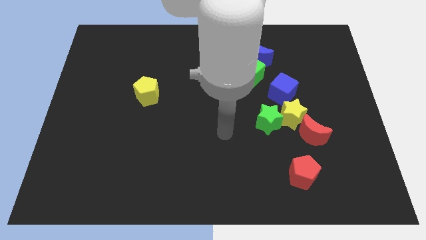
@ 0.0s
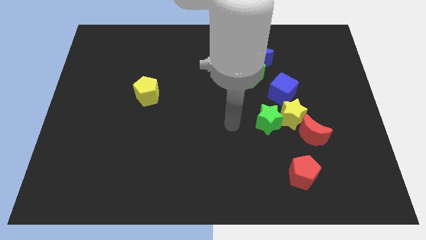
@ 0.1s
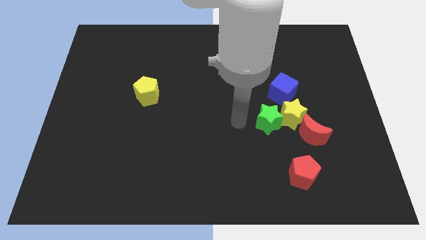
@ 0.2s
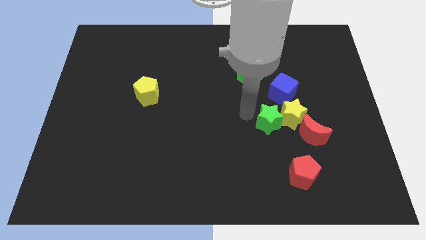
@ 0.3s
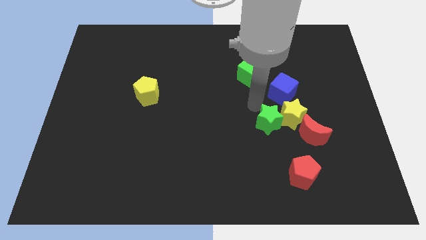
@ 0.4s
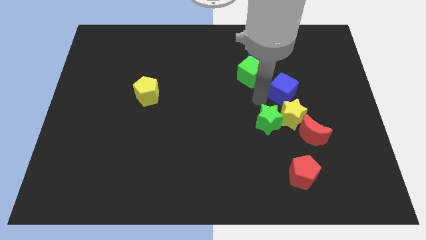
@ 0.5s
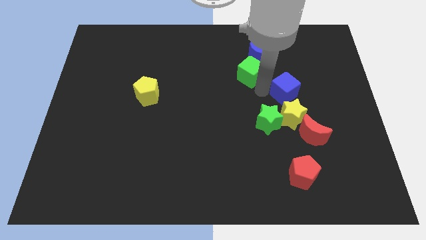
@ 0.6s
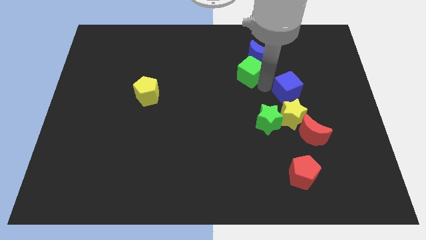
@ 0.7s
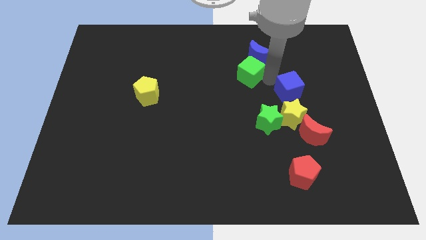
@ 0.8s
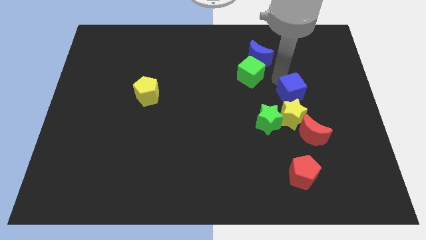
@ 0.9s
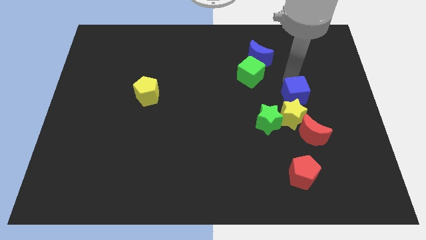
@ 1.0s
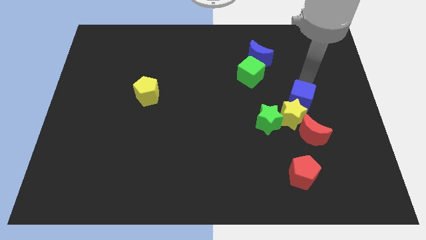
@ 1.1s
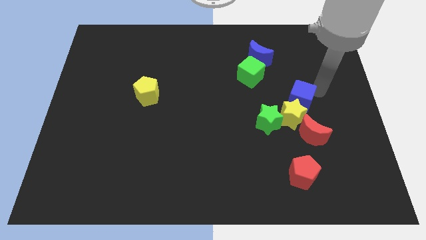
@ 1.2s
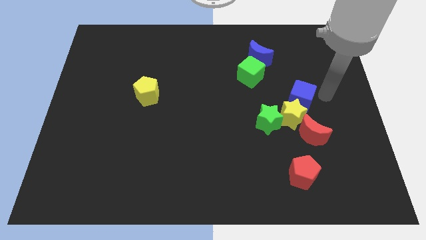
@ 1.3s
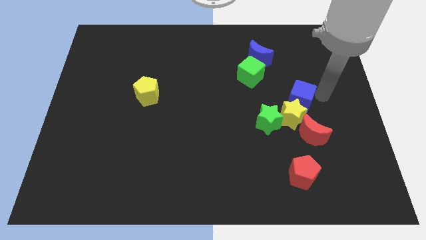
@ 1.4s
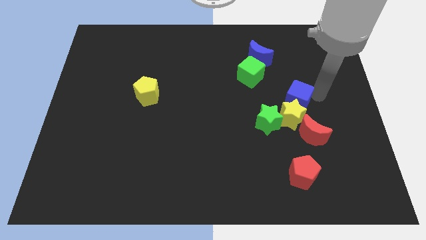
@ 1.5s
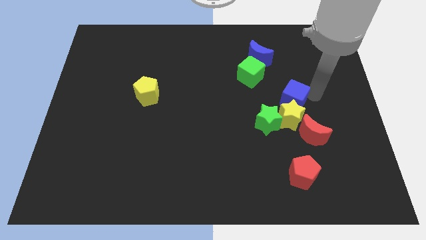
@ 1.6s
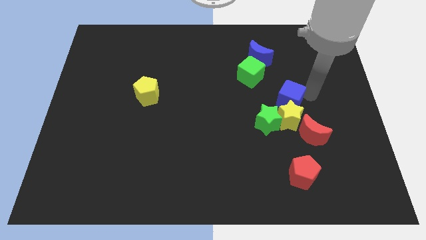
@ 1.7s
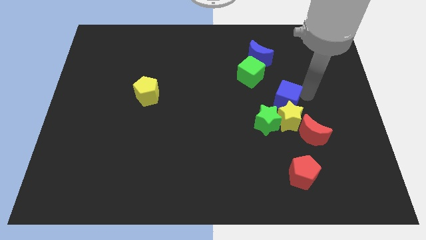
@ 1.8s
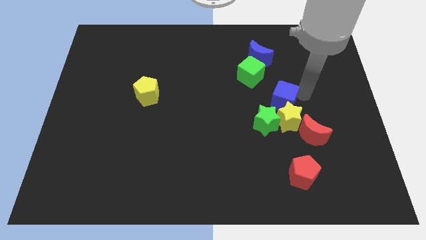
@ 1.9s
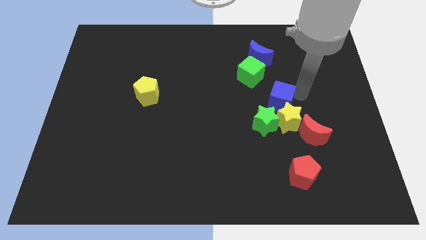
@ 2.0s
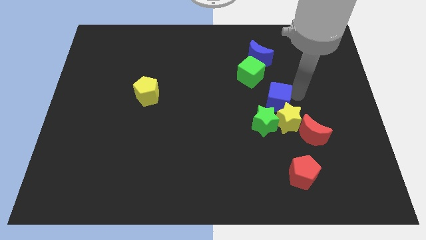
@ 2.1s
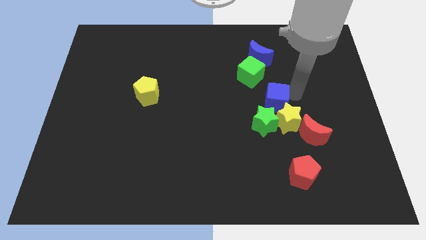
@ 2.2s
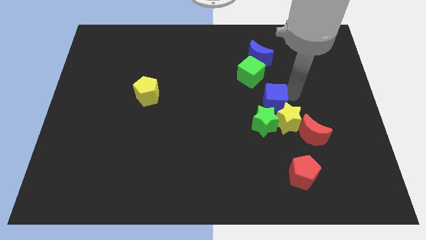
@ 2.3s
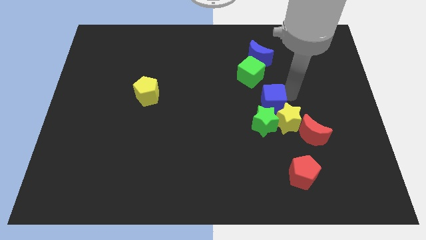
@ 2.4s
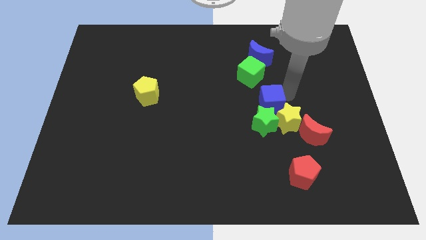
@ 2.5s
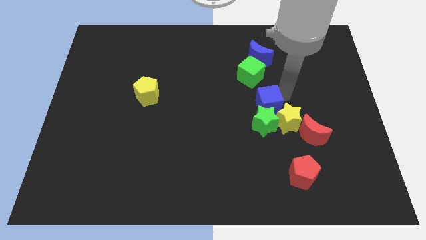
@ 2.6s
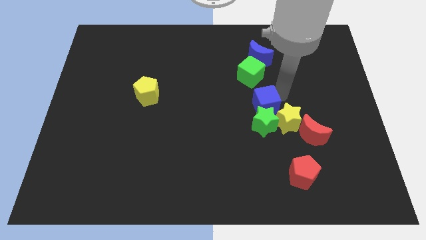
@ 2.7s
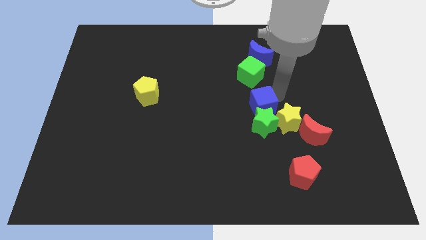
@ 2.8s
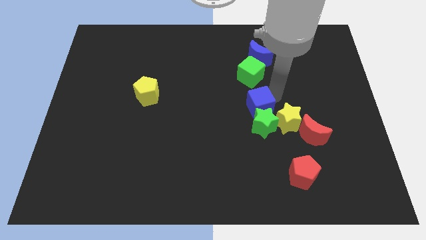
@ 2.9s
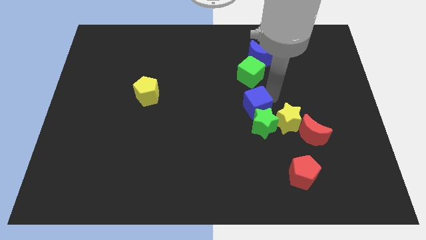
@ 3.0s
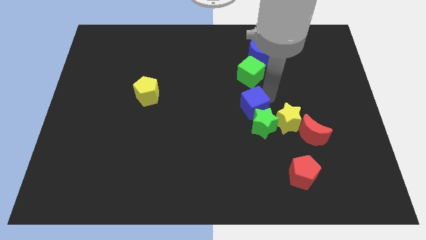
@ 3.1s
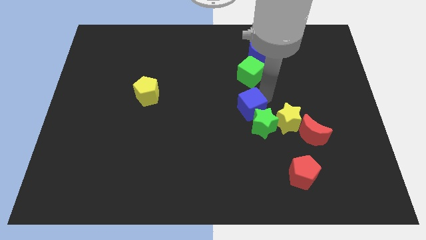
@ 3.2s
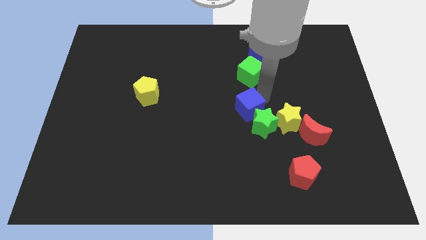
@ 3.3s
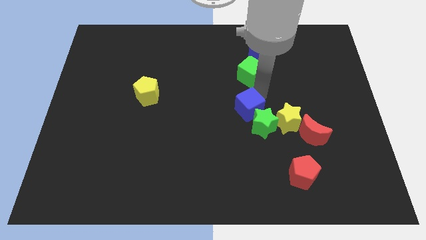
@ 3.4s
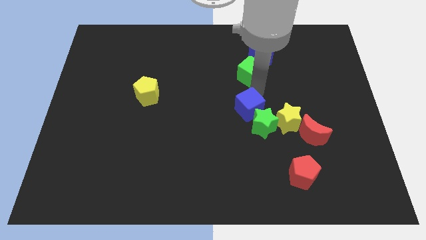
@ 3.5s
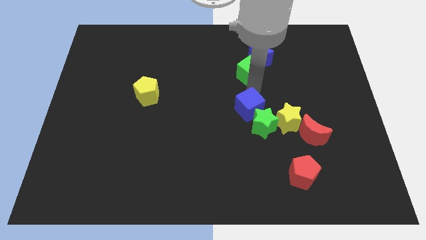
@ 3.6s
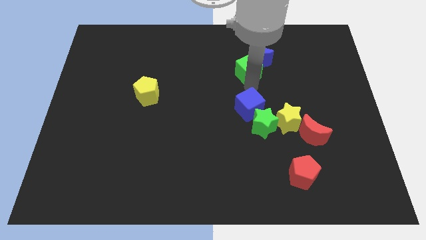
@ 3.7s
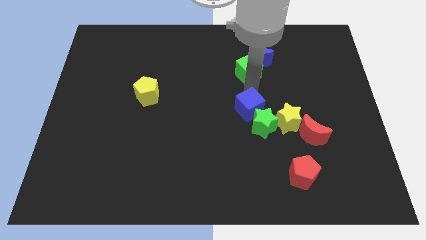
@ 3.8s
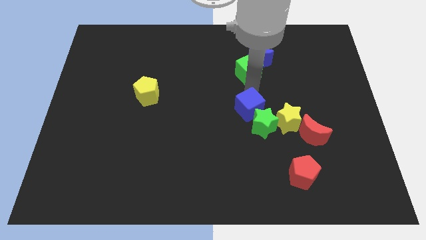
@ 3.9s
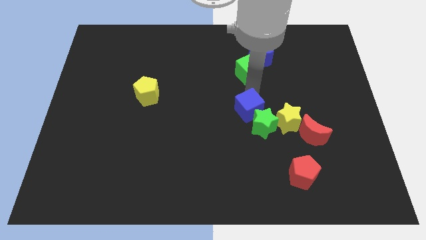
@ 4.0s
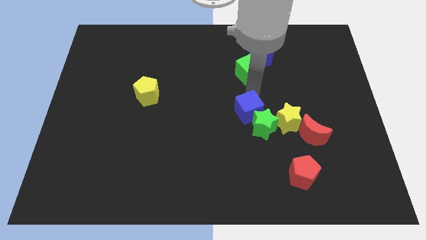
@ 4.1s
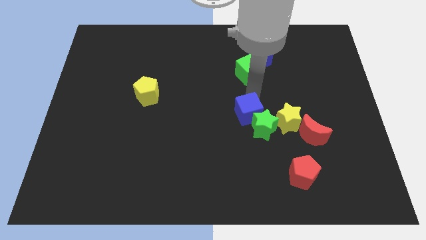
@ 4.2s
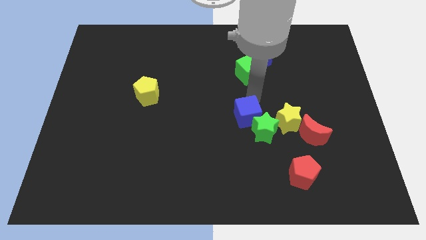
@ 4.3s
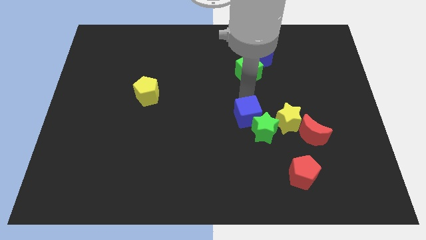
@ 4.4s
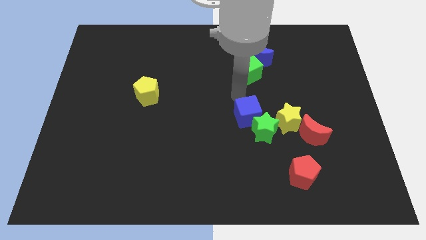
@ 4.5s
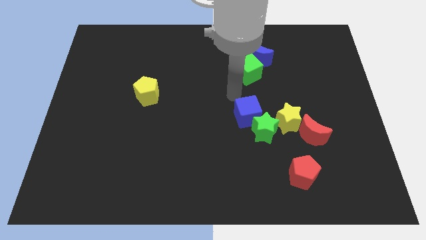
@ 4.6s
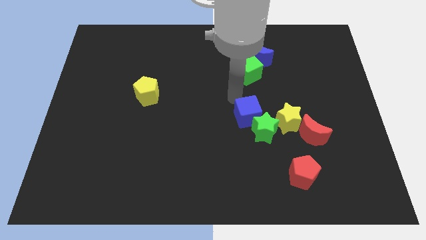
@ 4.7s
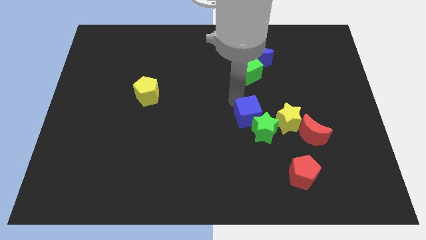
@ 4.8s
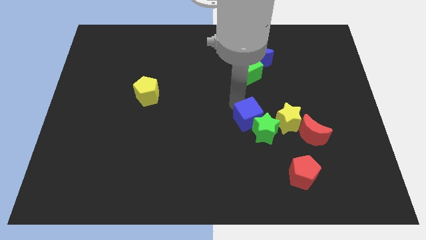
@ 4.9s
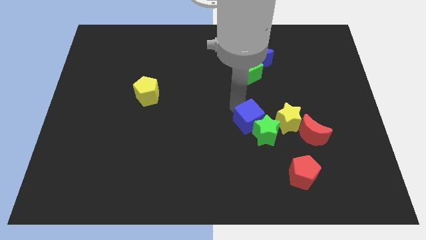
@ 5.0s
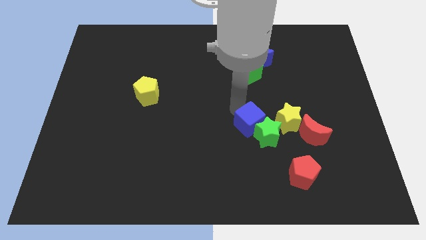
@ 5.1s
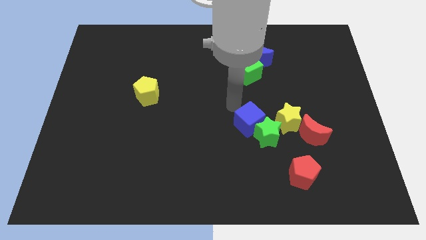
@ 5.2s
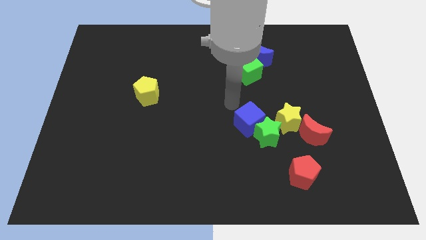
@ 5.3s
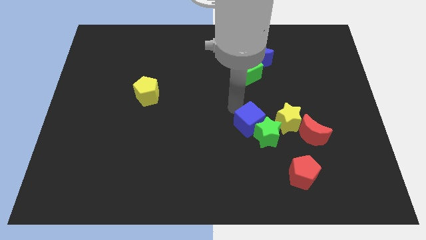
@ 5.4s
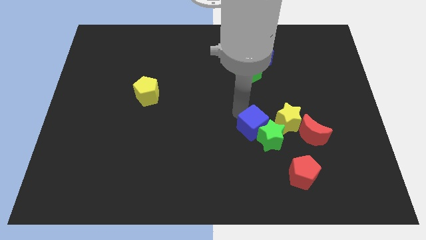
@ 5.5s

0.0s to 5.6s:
put the blue cube diagonally down and to the left of the yellow star

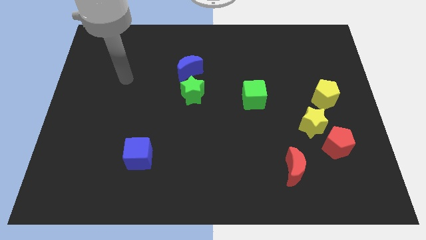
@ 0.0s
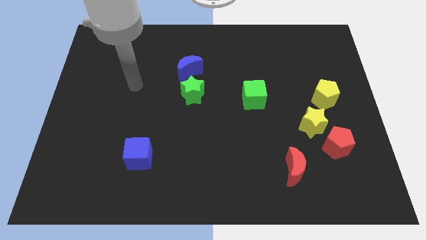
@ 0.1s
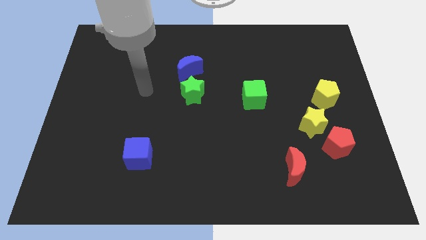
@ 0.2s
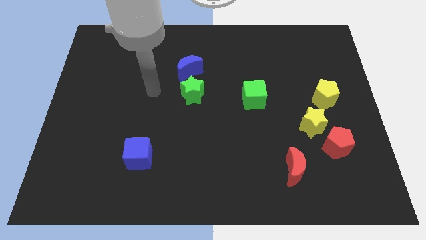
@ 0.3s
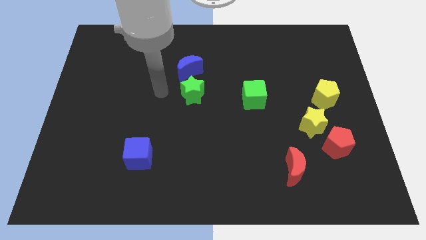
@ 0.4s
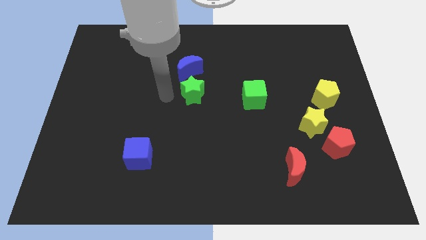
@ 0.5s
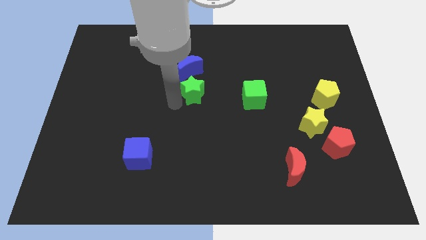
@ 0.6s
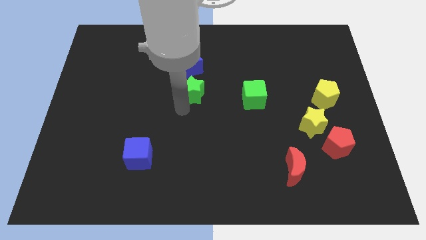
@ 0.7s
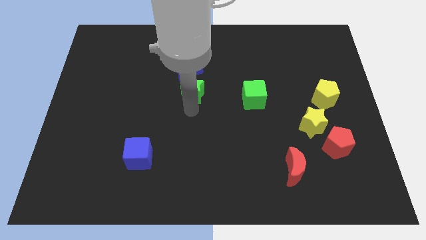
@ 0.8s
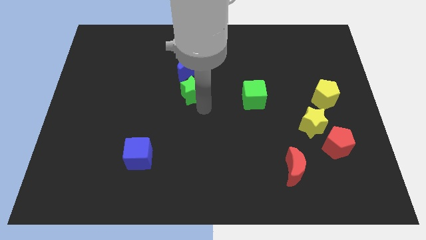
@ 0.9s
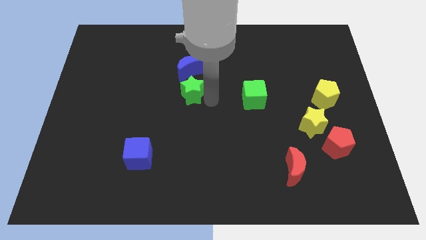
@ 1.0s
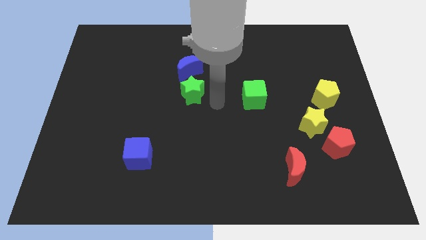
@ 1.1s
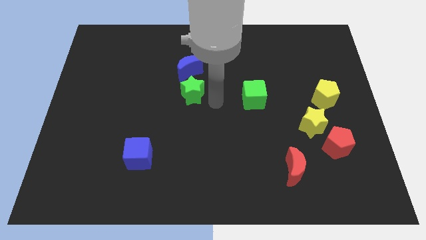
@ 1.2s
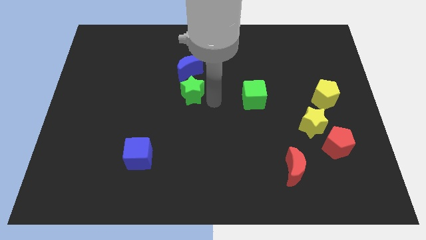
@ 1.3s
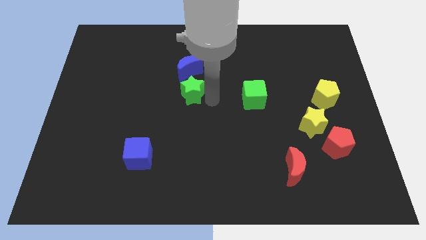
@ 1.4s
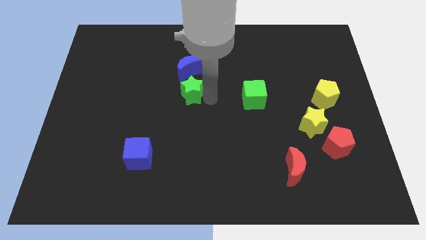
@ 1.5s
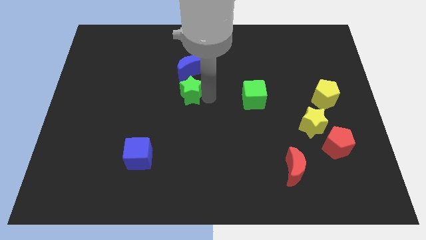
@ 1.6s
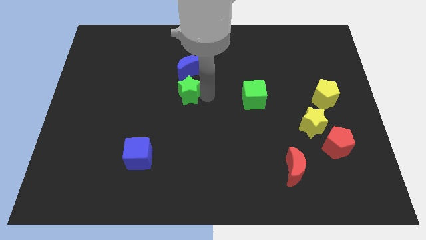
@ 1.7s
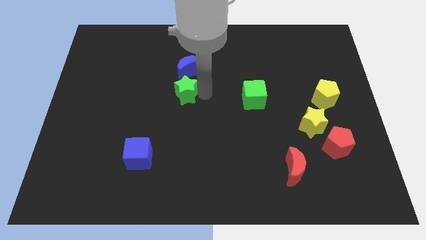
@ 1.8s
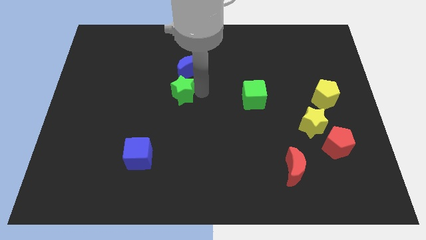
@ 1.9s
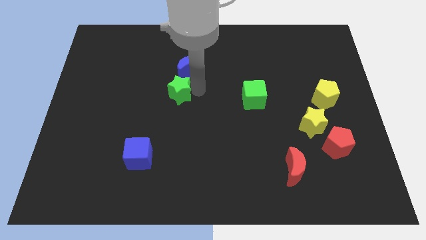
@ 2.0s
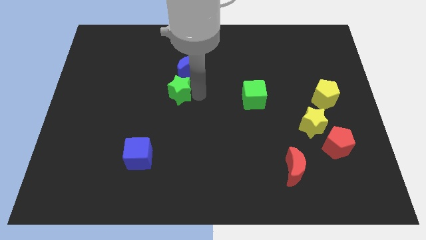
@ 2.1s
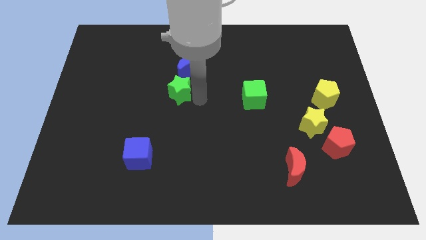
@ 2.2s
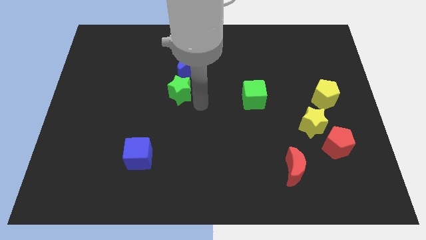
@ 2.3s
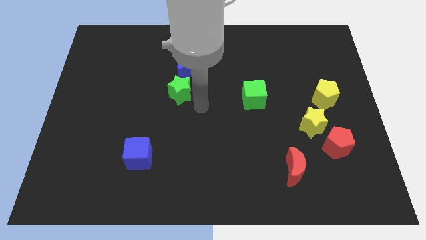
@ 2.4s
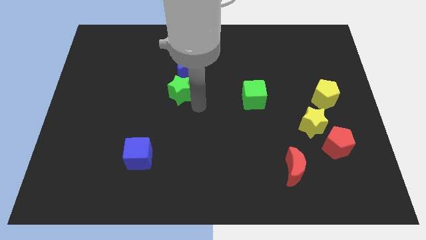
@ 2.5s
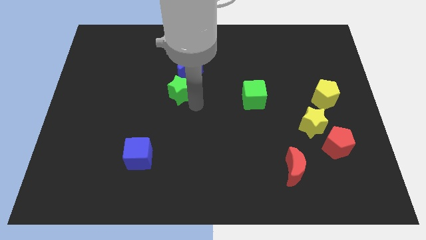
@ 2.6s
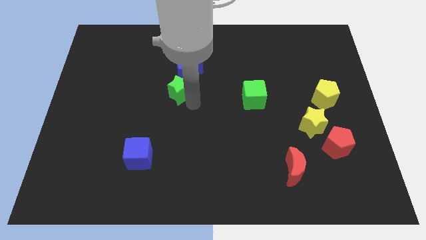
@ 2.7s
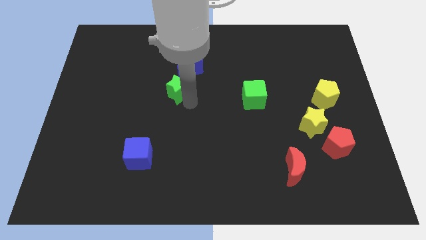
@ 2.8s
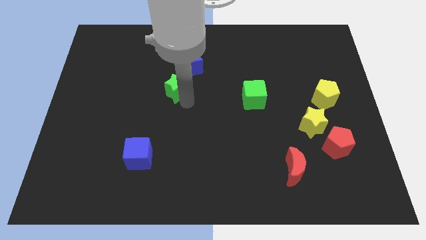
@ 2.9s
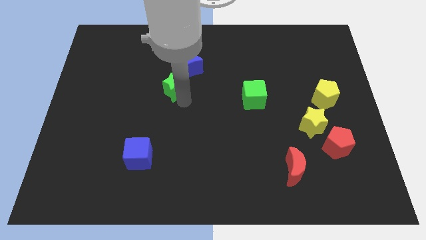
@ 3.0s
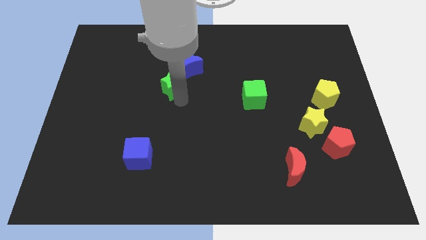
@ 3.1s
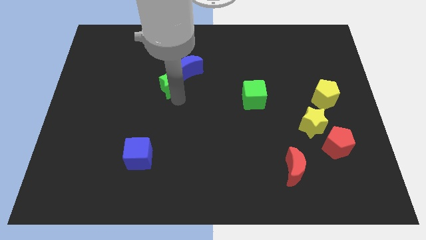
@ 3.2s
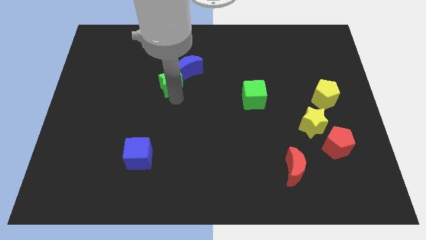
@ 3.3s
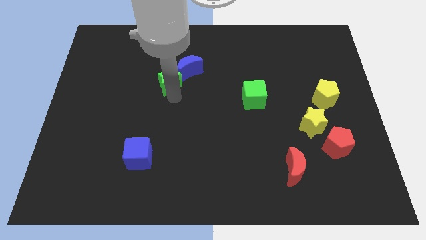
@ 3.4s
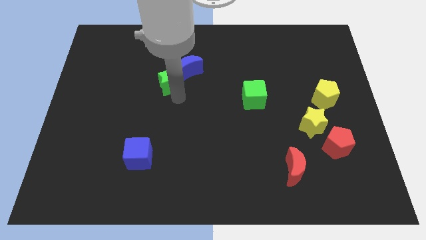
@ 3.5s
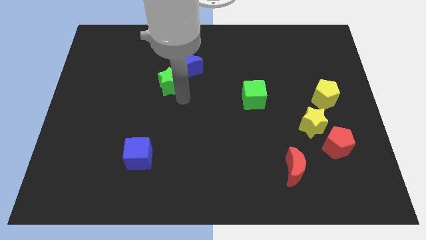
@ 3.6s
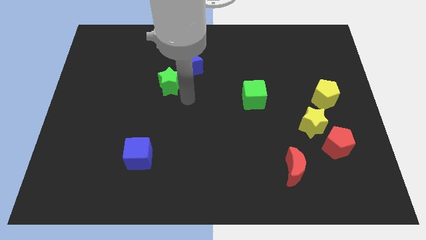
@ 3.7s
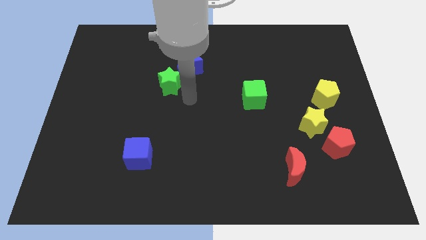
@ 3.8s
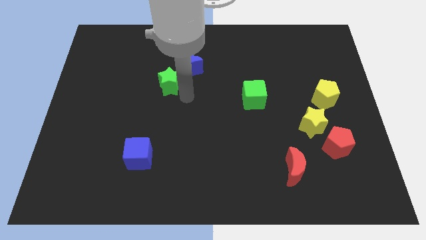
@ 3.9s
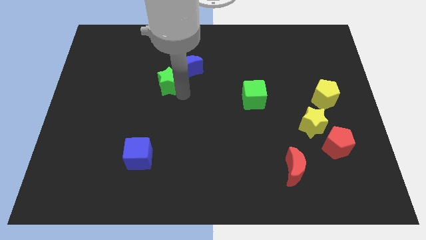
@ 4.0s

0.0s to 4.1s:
push the green star to the left of the blue moon
